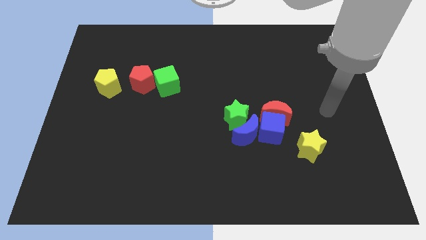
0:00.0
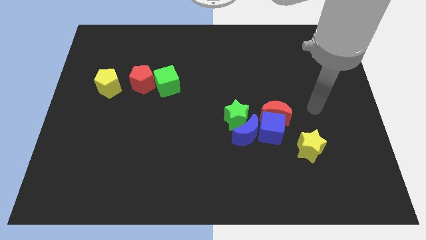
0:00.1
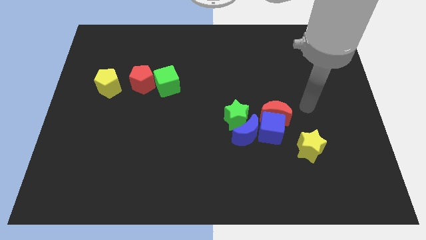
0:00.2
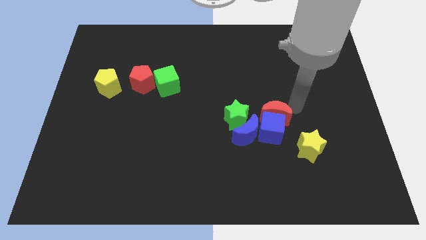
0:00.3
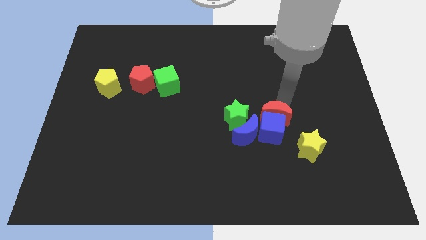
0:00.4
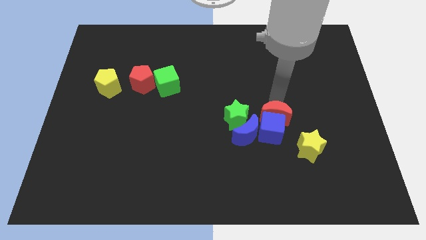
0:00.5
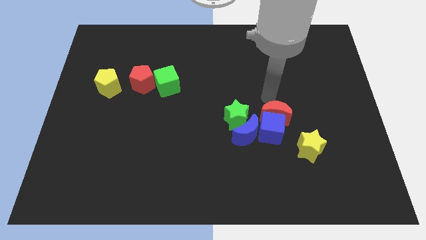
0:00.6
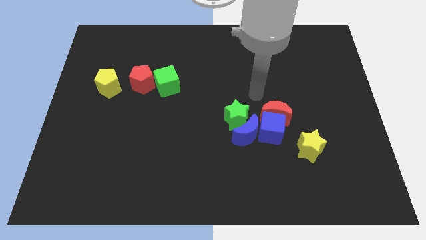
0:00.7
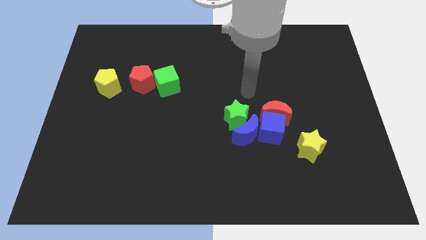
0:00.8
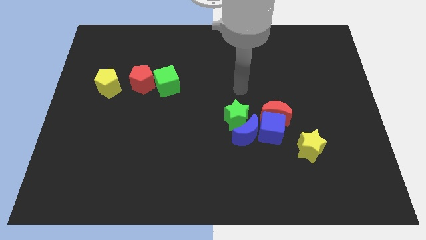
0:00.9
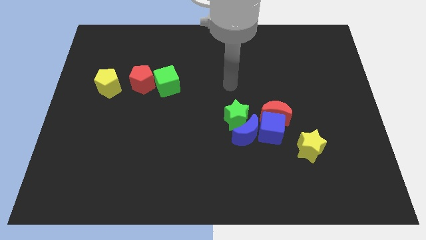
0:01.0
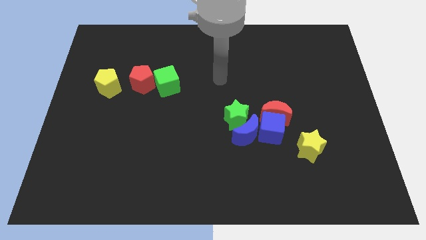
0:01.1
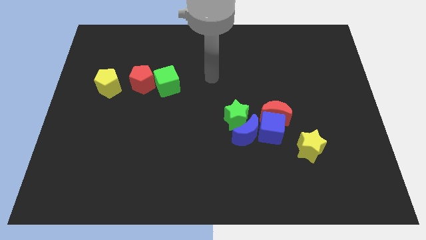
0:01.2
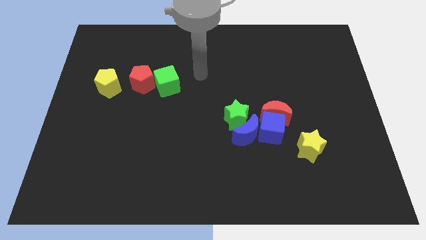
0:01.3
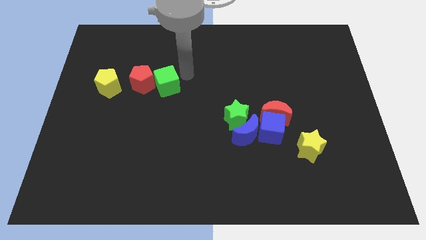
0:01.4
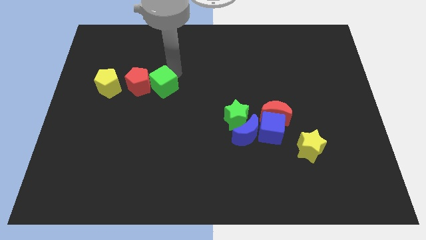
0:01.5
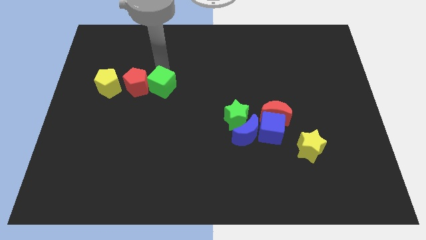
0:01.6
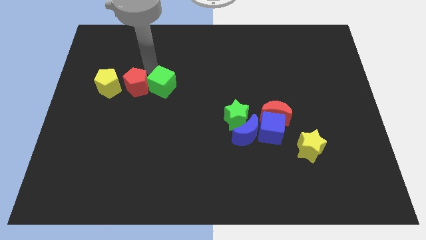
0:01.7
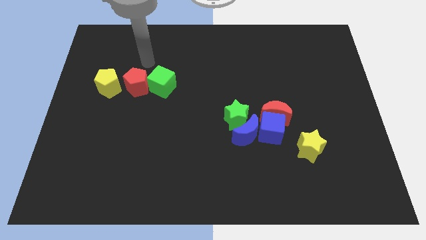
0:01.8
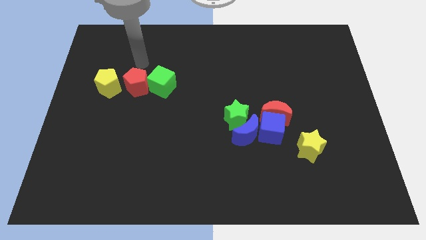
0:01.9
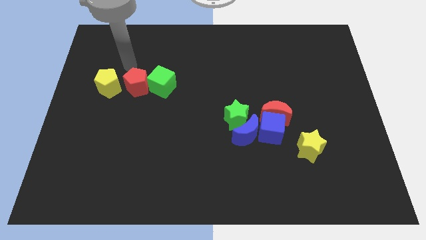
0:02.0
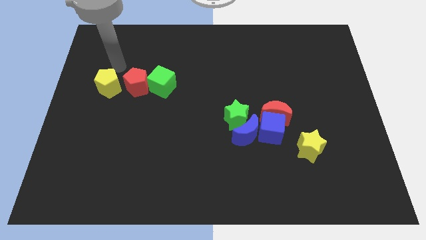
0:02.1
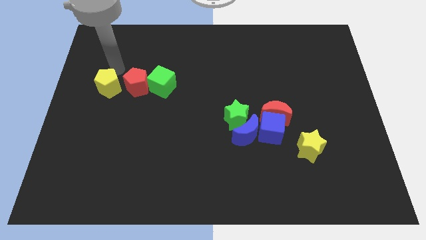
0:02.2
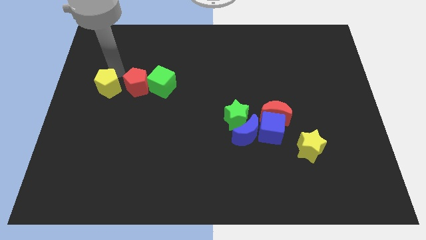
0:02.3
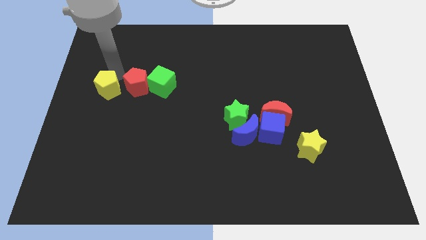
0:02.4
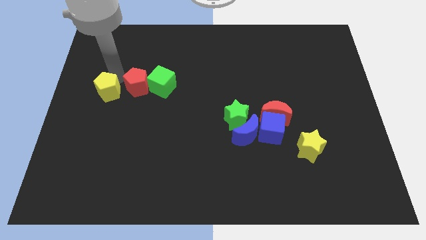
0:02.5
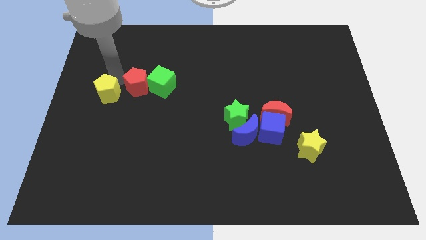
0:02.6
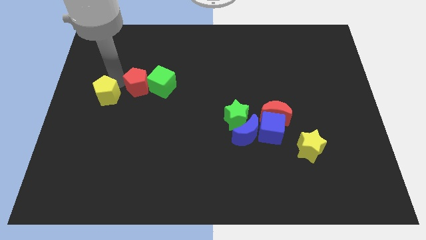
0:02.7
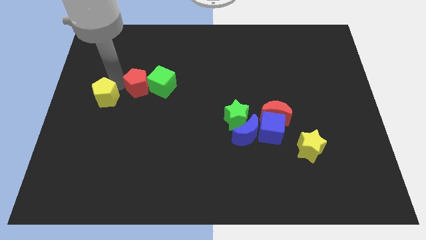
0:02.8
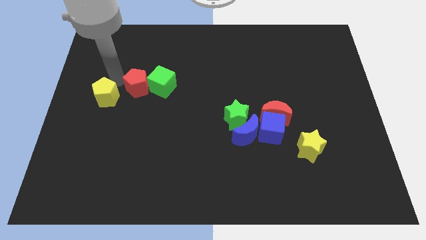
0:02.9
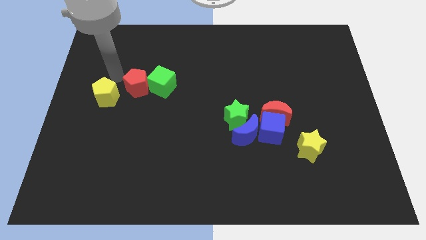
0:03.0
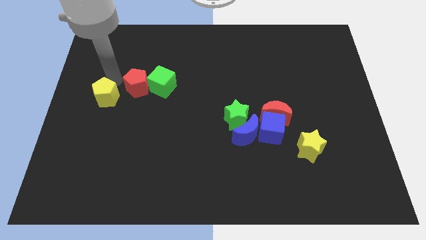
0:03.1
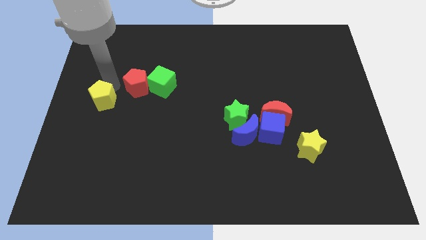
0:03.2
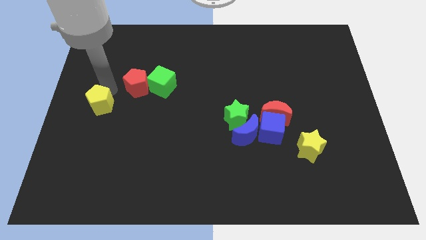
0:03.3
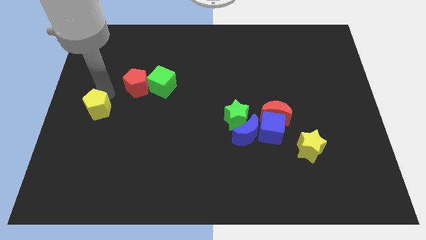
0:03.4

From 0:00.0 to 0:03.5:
slide the yellow pentagon downwards a little bit

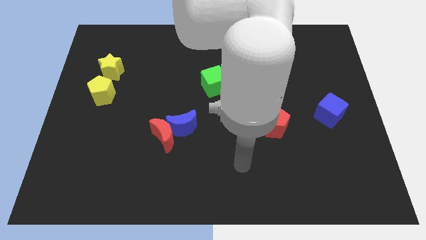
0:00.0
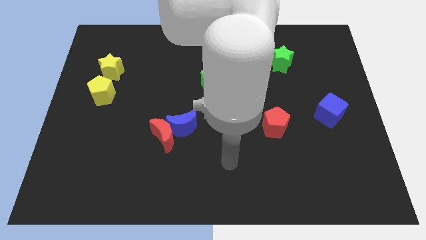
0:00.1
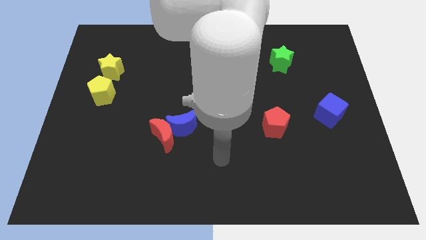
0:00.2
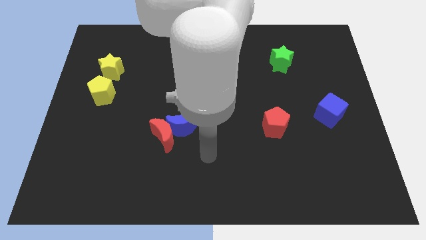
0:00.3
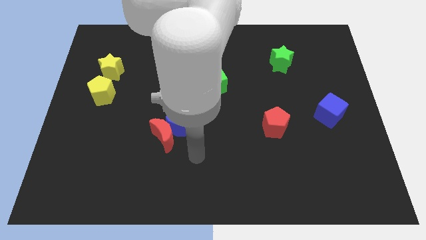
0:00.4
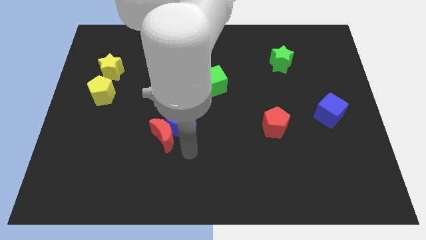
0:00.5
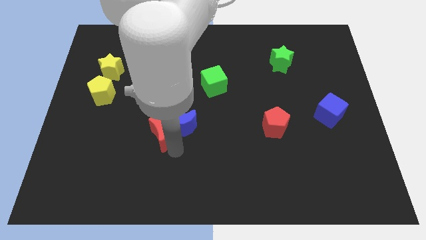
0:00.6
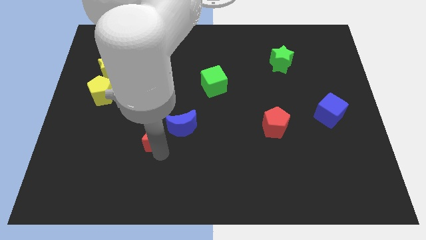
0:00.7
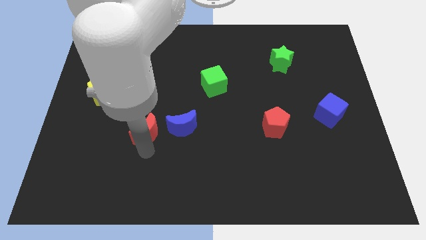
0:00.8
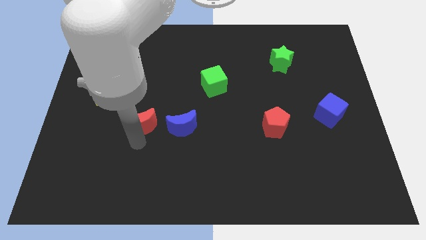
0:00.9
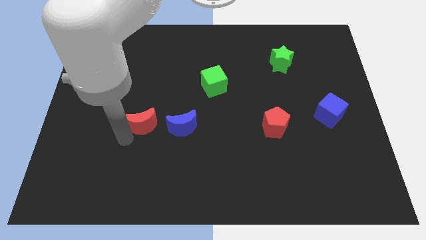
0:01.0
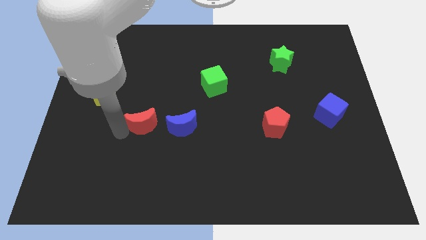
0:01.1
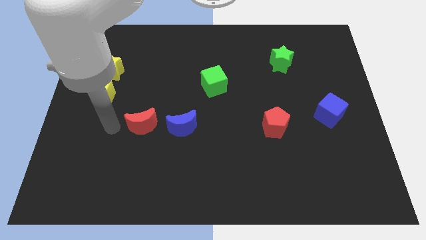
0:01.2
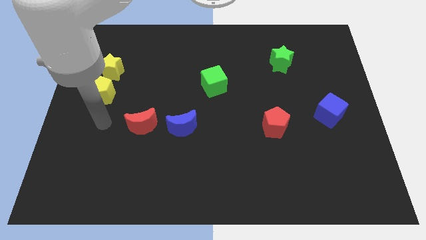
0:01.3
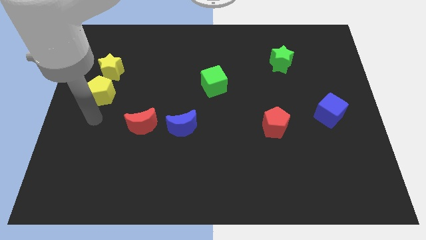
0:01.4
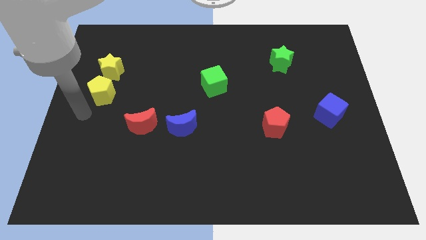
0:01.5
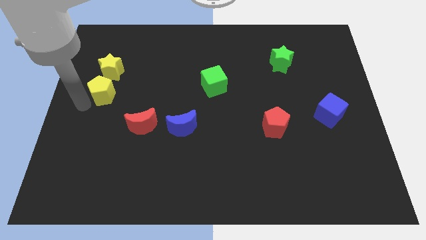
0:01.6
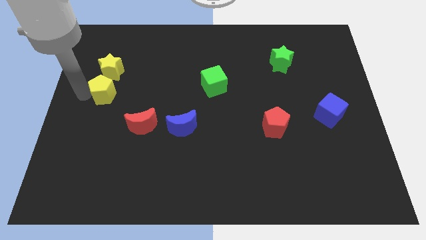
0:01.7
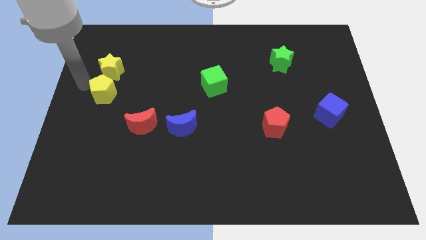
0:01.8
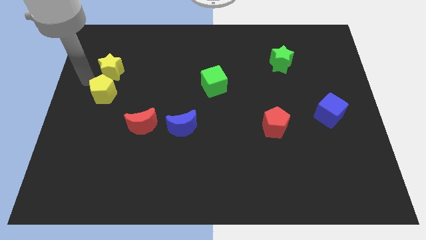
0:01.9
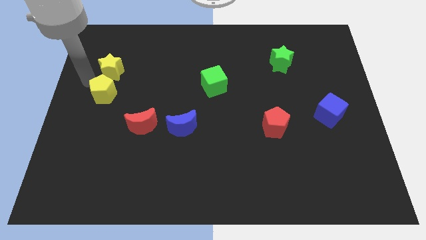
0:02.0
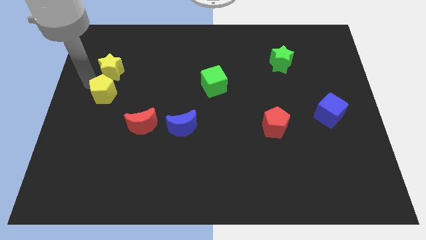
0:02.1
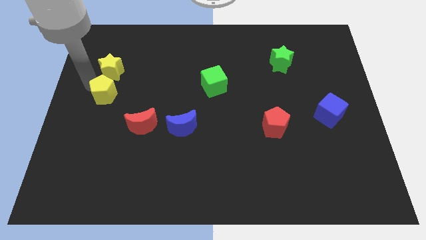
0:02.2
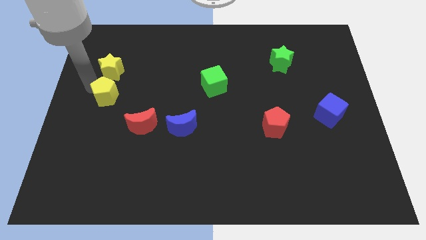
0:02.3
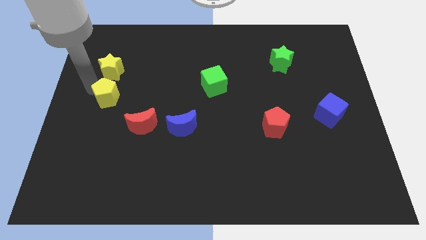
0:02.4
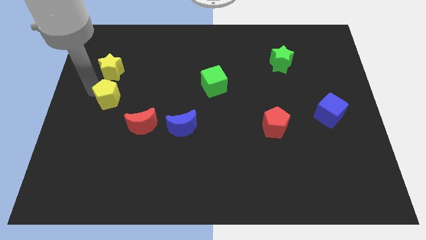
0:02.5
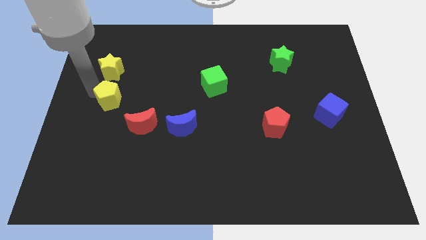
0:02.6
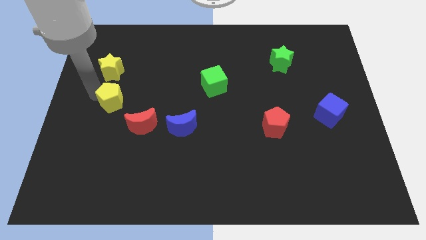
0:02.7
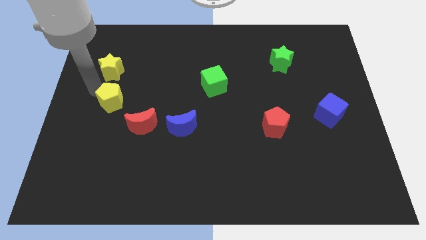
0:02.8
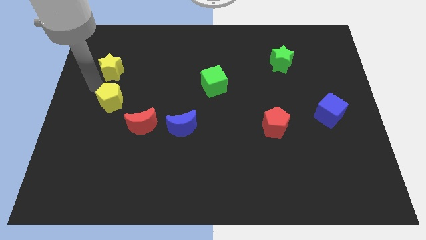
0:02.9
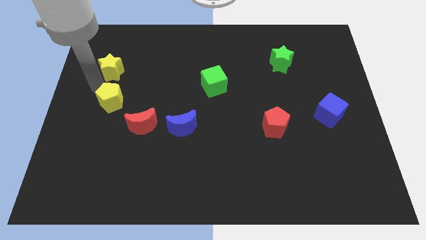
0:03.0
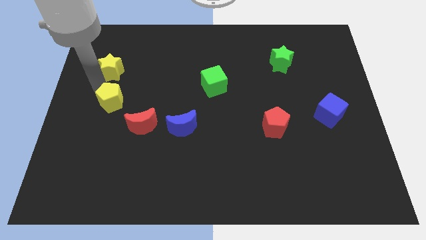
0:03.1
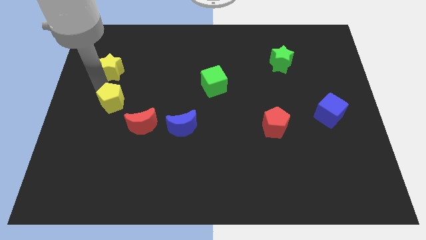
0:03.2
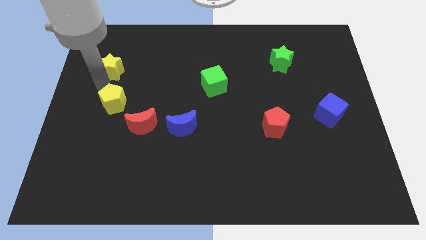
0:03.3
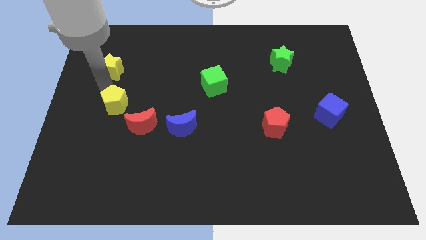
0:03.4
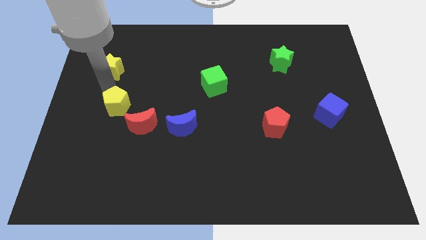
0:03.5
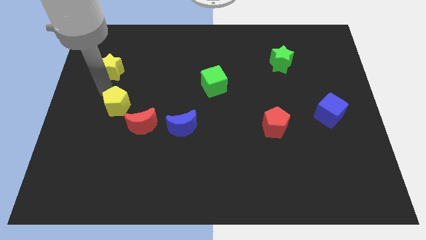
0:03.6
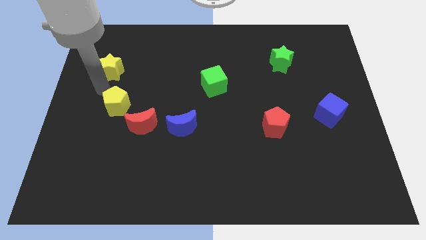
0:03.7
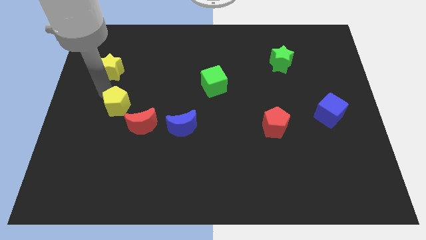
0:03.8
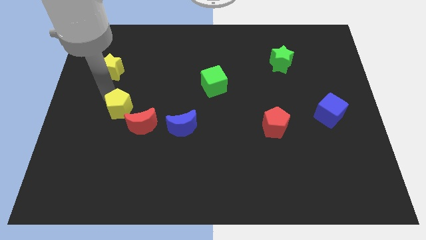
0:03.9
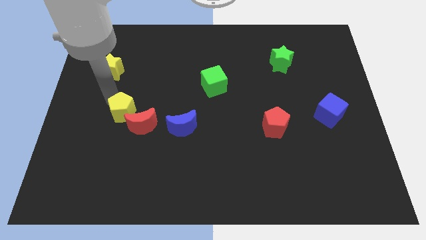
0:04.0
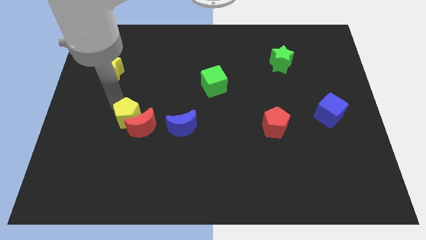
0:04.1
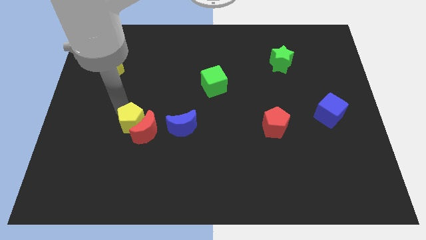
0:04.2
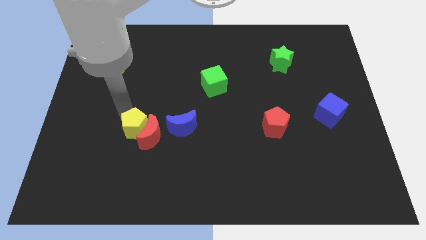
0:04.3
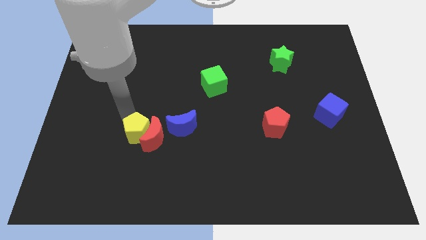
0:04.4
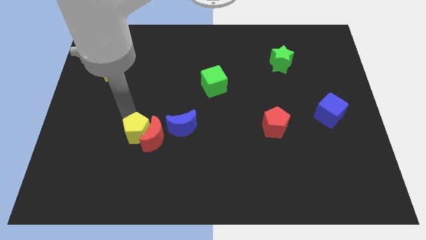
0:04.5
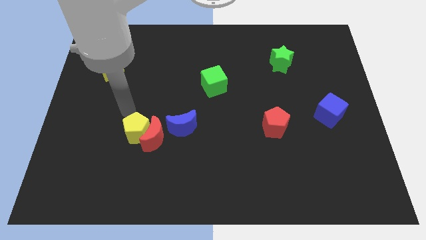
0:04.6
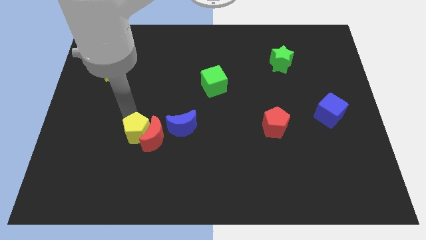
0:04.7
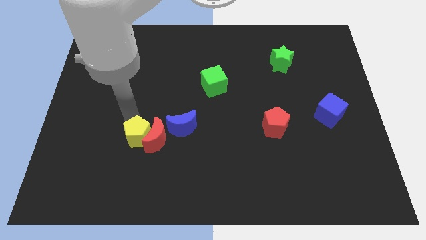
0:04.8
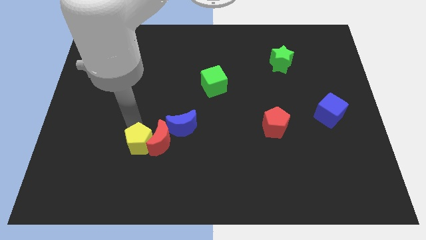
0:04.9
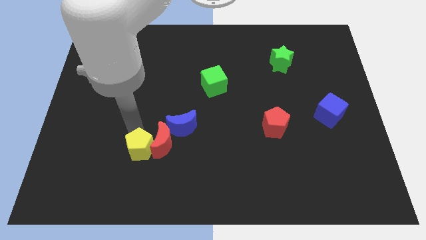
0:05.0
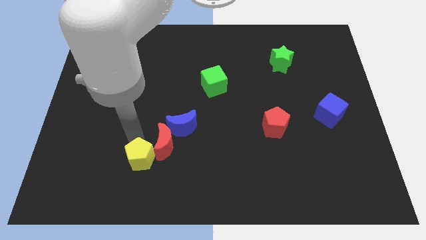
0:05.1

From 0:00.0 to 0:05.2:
move the yellow pentagon down and right diagonally
